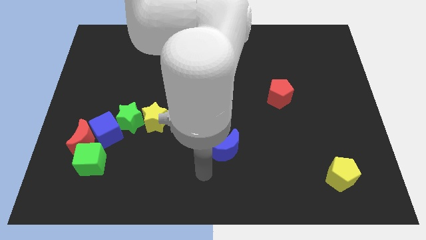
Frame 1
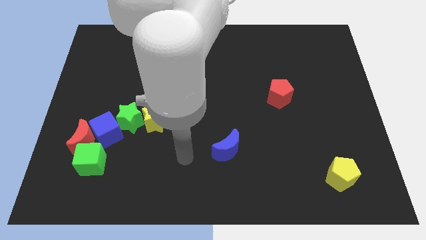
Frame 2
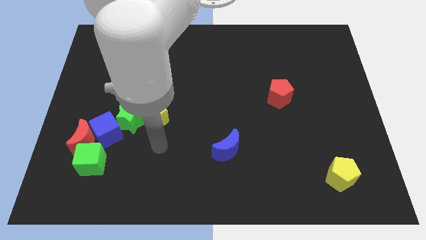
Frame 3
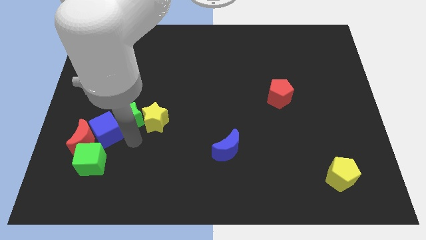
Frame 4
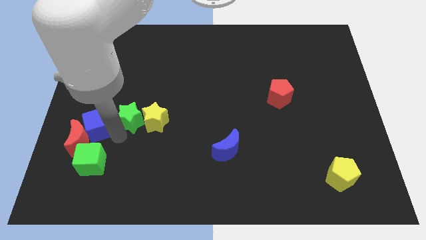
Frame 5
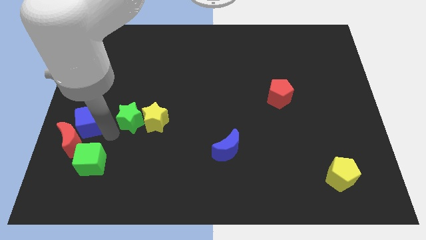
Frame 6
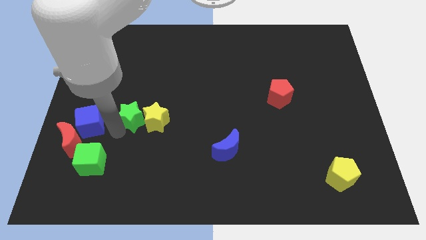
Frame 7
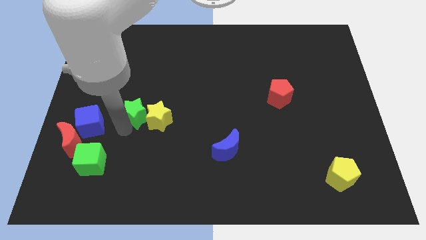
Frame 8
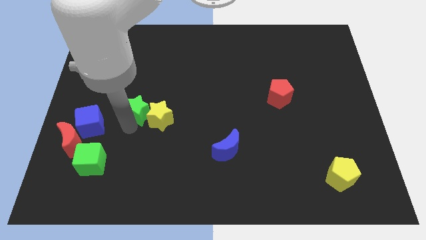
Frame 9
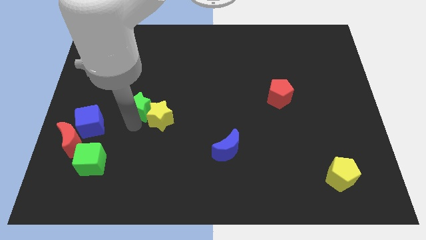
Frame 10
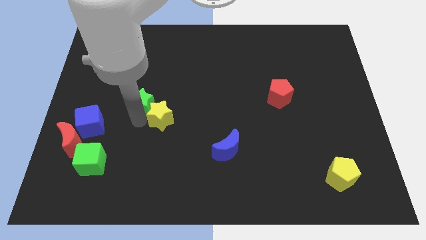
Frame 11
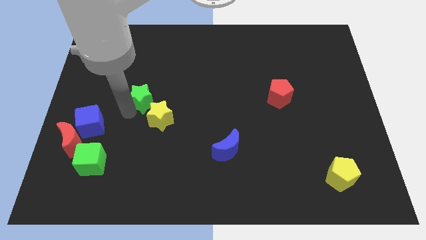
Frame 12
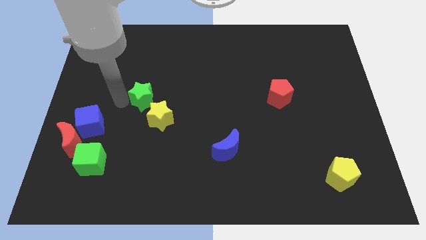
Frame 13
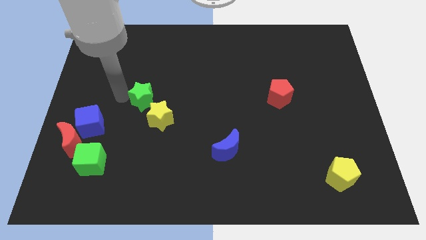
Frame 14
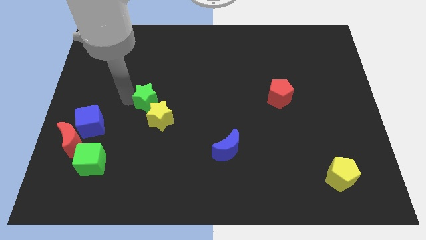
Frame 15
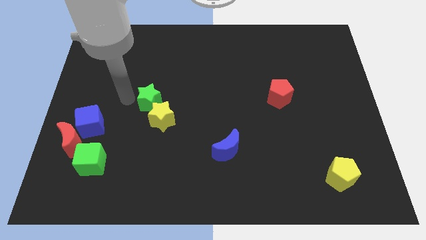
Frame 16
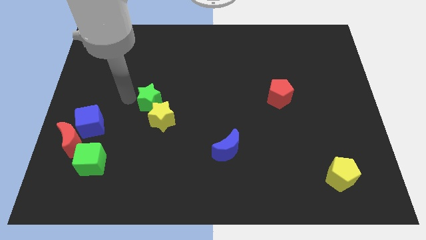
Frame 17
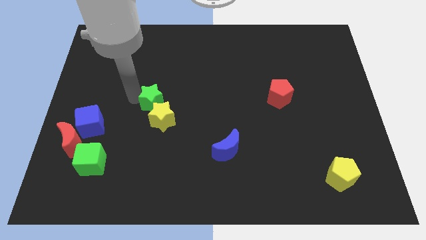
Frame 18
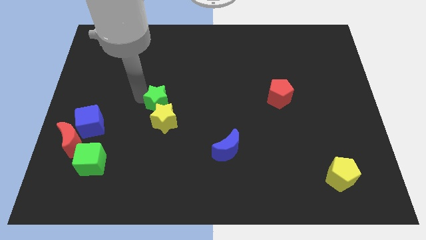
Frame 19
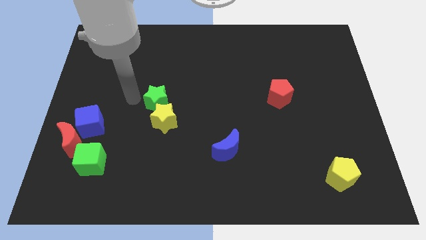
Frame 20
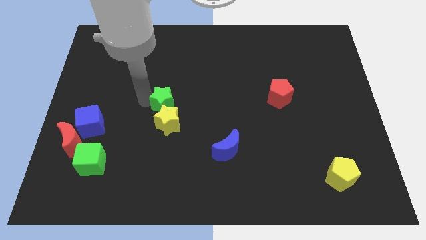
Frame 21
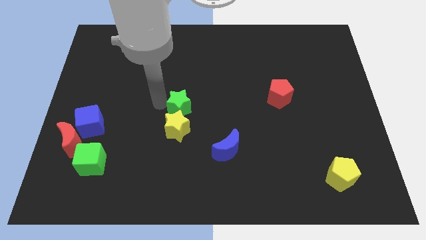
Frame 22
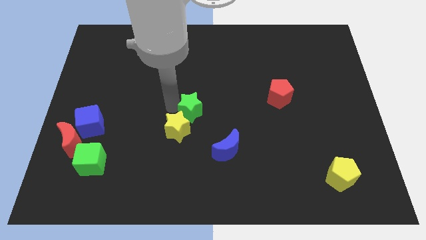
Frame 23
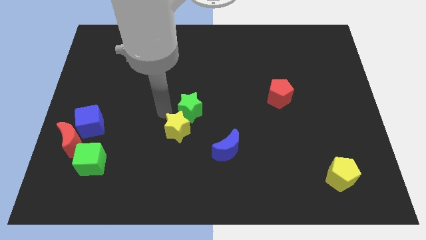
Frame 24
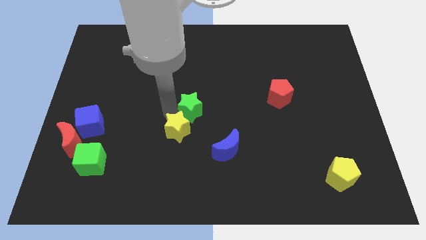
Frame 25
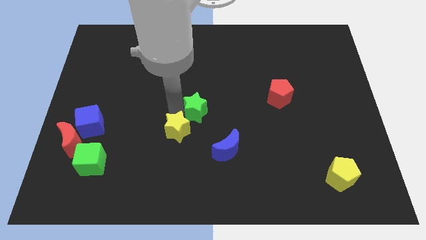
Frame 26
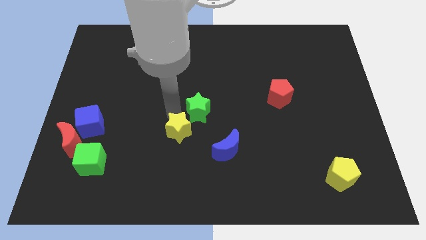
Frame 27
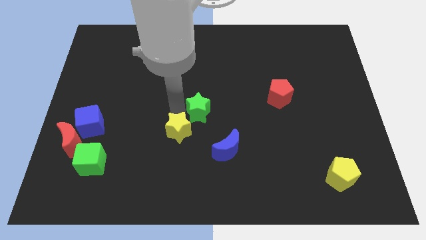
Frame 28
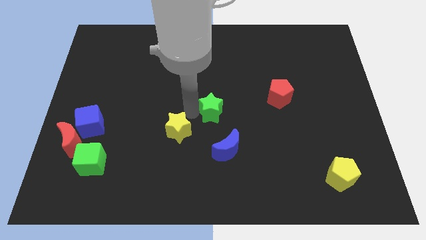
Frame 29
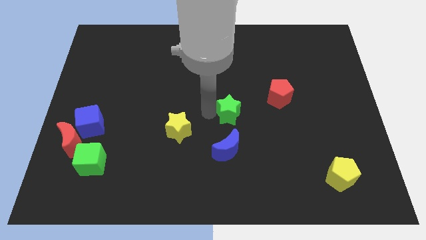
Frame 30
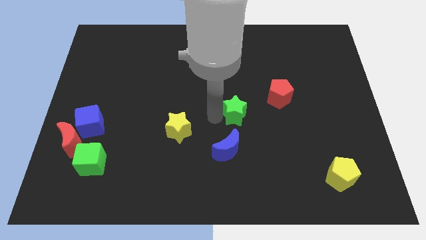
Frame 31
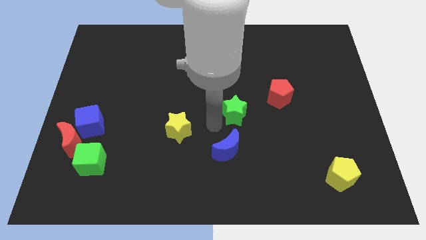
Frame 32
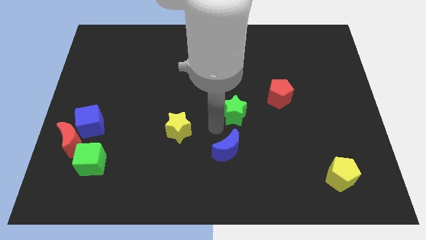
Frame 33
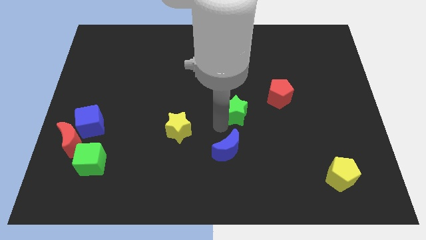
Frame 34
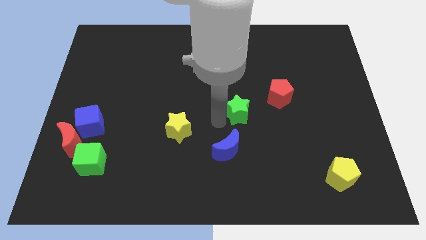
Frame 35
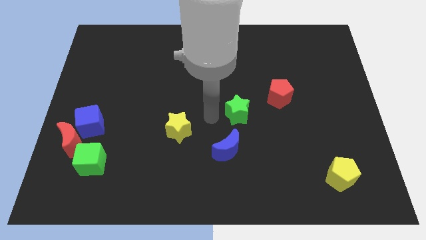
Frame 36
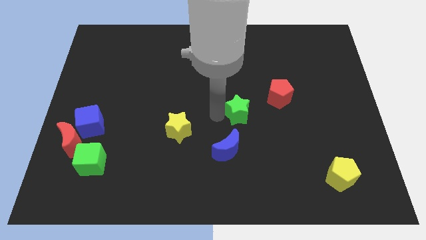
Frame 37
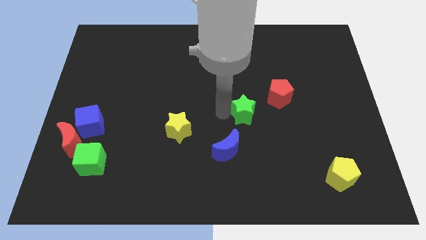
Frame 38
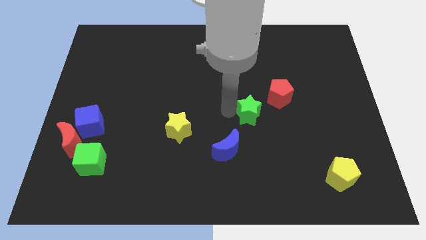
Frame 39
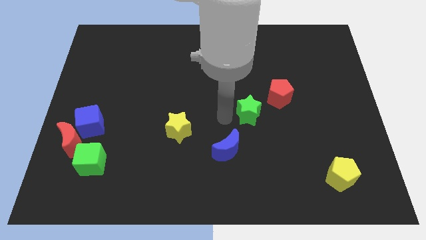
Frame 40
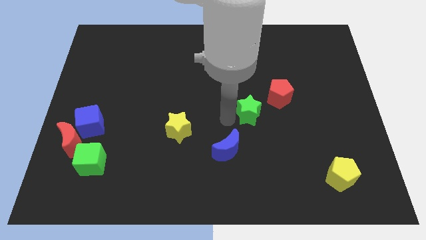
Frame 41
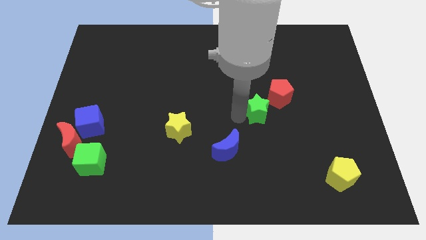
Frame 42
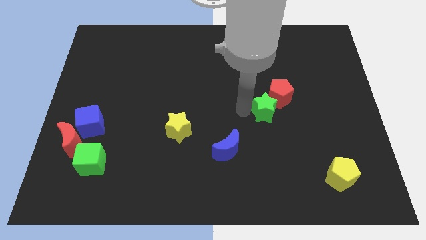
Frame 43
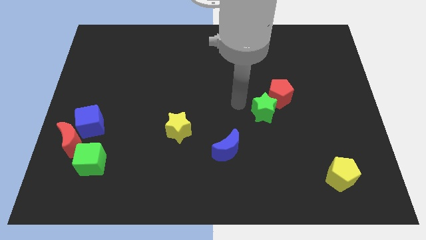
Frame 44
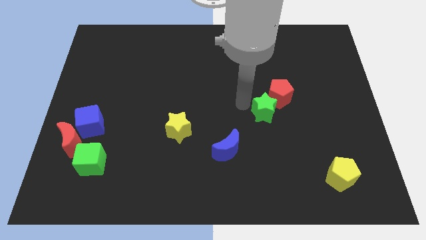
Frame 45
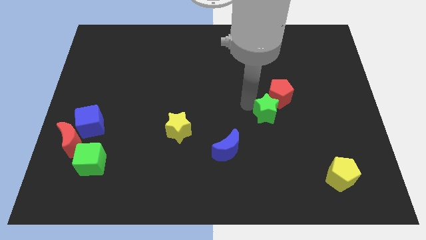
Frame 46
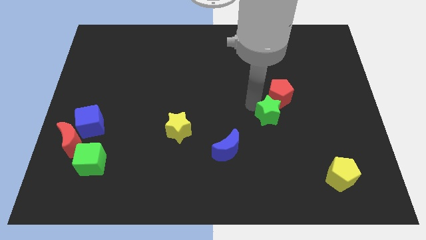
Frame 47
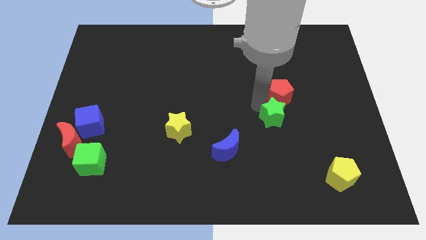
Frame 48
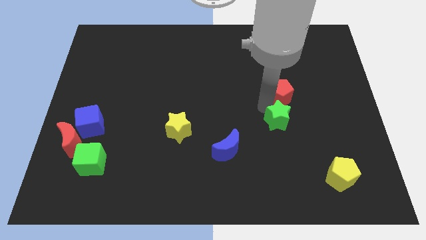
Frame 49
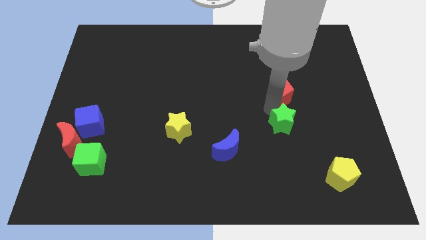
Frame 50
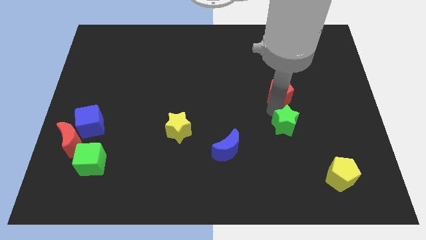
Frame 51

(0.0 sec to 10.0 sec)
move the green star to the bottom right of the red pentagon

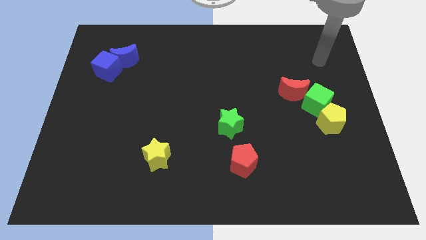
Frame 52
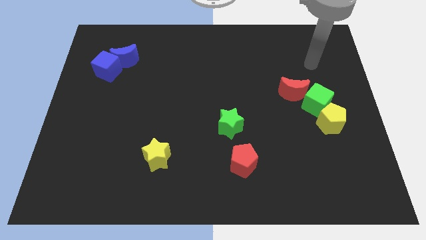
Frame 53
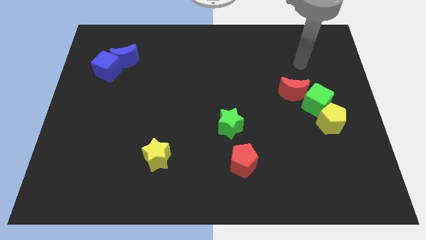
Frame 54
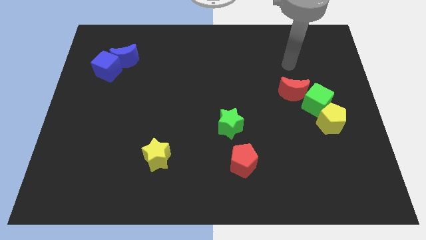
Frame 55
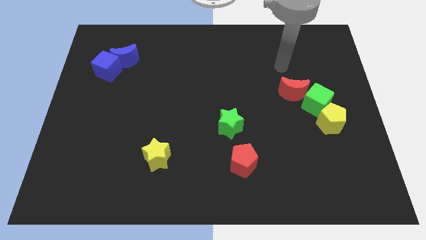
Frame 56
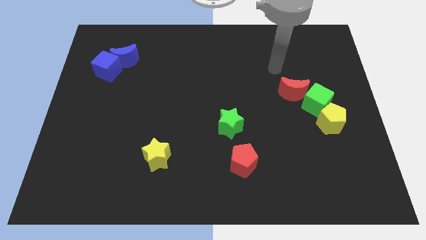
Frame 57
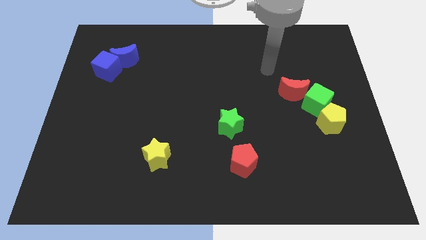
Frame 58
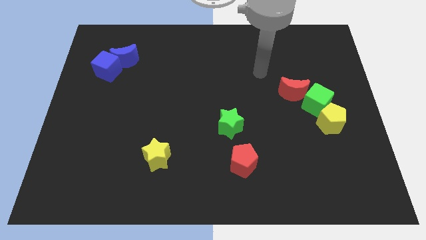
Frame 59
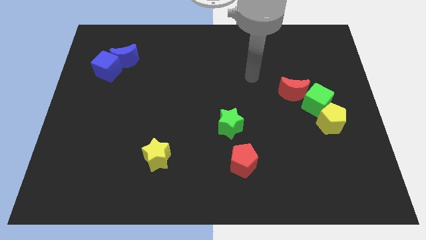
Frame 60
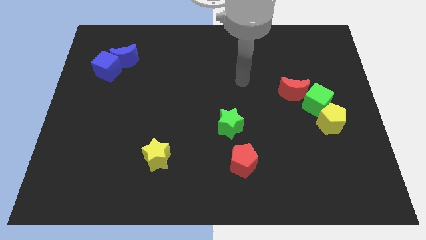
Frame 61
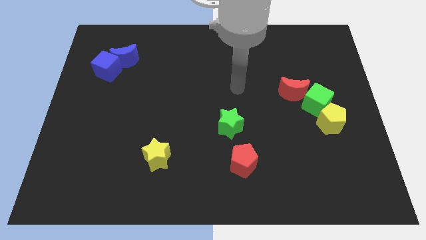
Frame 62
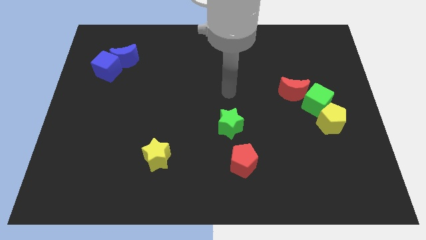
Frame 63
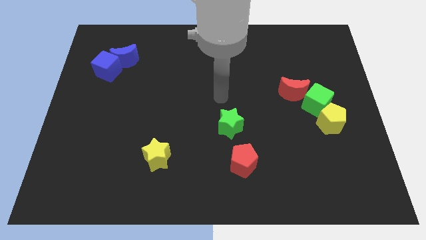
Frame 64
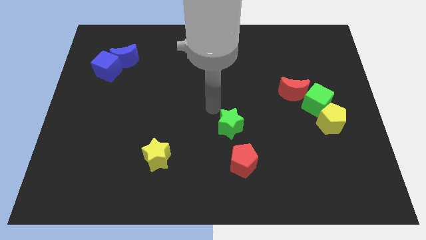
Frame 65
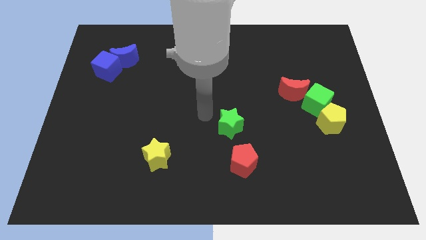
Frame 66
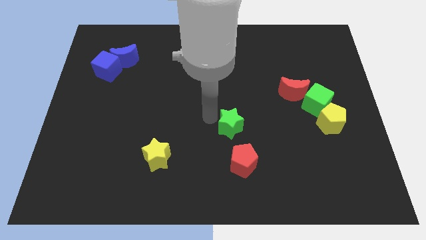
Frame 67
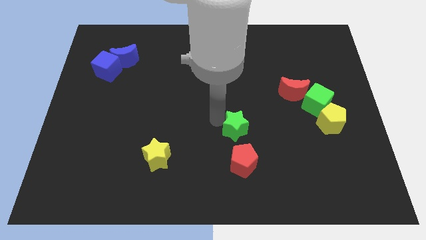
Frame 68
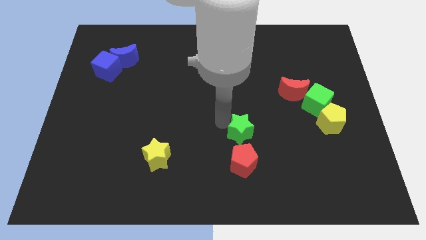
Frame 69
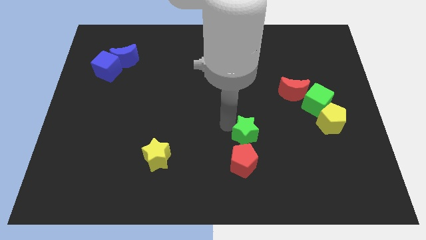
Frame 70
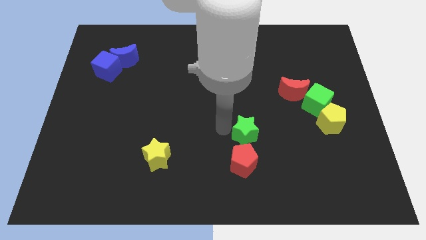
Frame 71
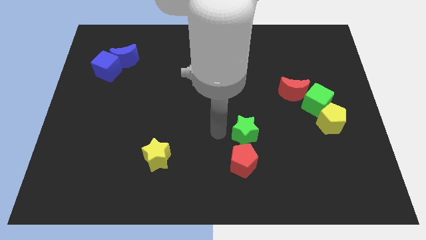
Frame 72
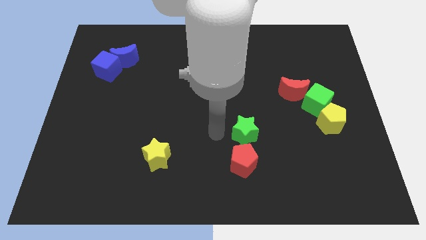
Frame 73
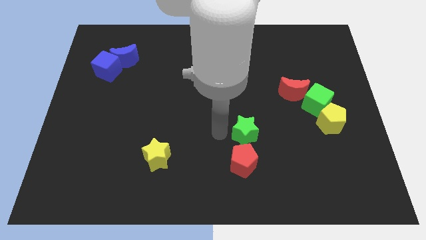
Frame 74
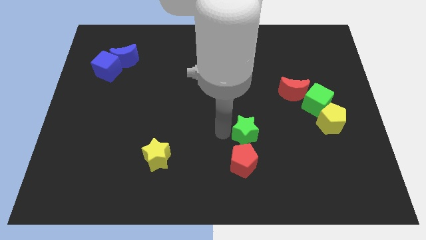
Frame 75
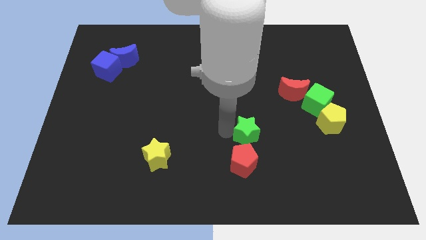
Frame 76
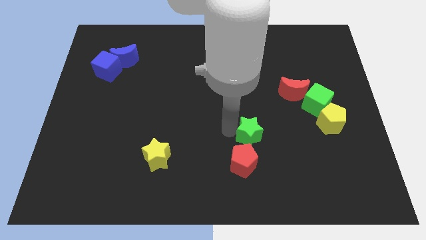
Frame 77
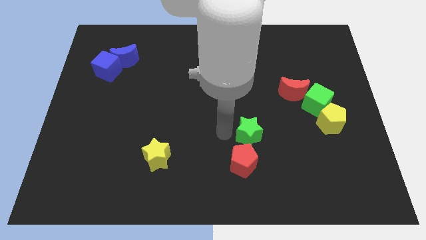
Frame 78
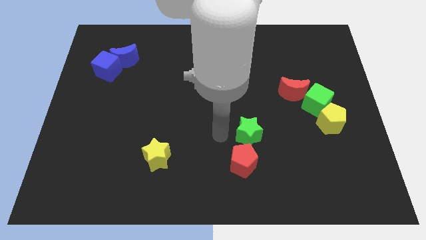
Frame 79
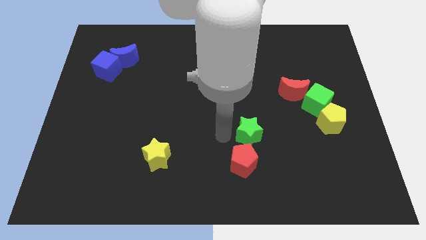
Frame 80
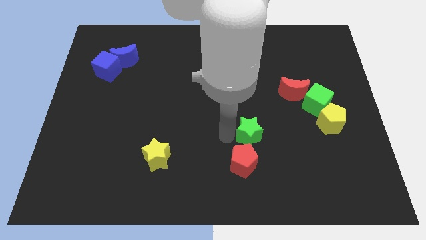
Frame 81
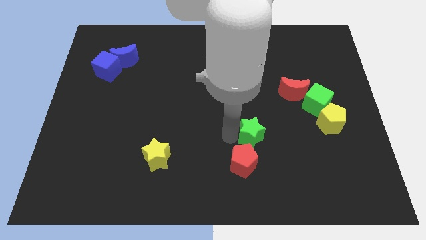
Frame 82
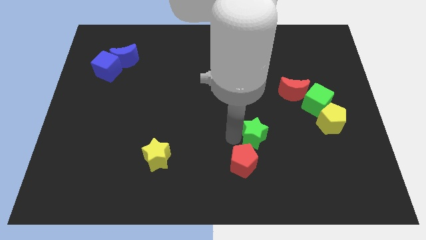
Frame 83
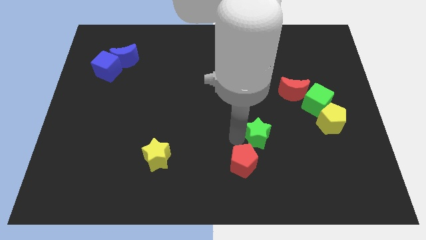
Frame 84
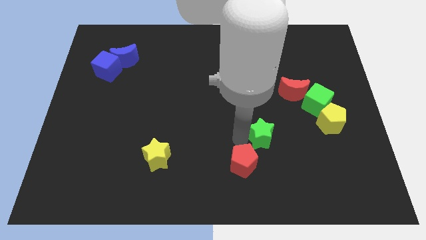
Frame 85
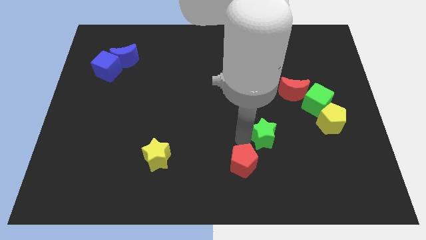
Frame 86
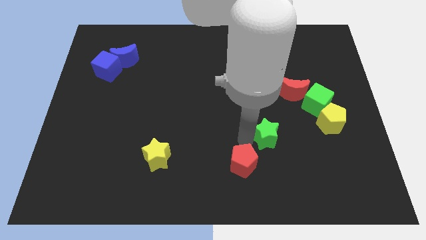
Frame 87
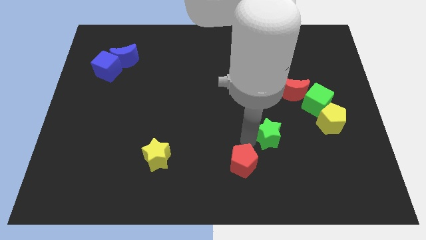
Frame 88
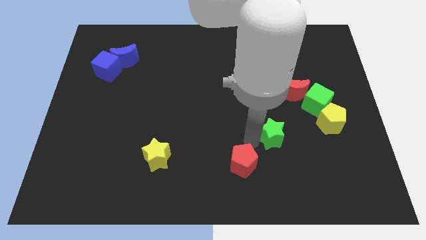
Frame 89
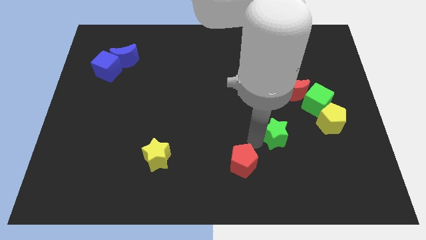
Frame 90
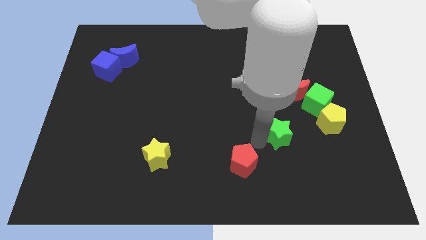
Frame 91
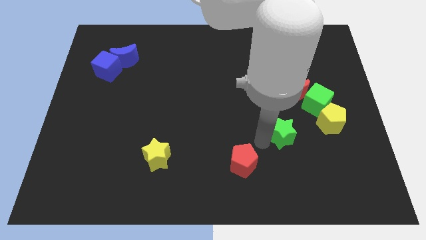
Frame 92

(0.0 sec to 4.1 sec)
slide the green star to the bottom side of the red moon
